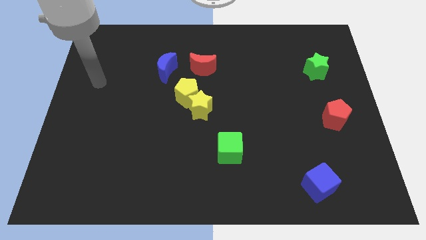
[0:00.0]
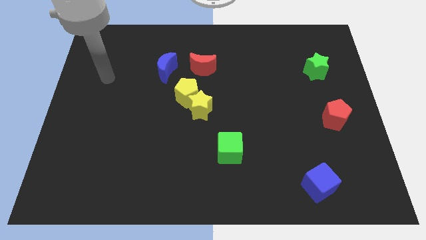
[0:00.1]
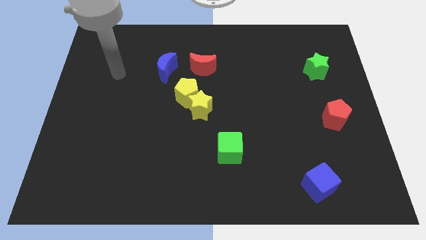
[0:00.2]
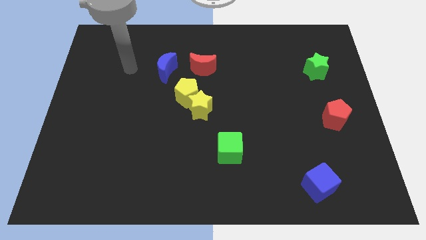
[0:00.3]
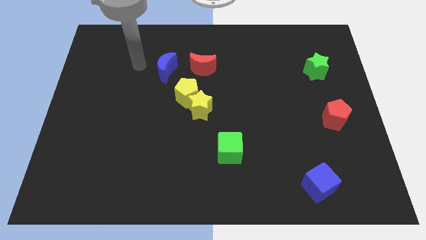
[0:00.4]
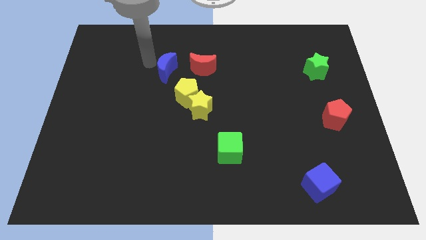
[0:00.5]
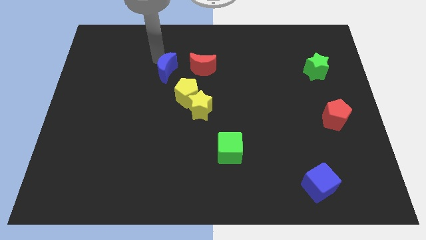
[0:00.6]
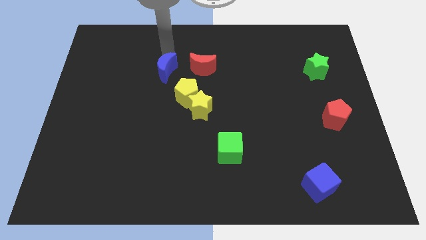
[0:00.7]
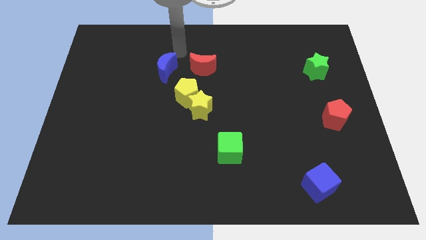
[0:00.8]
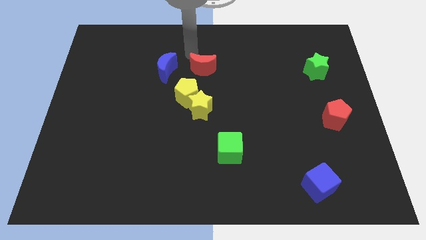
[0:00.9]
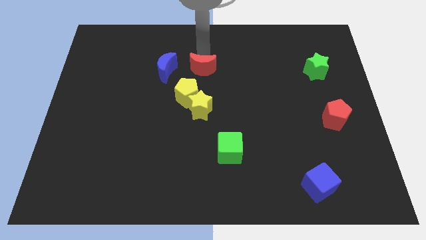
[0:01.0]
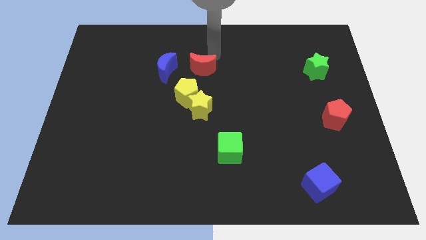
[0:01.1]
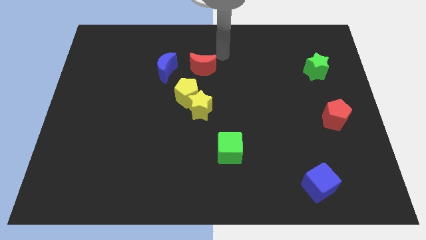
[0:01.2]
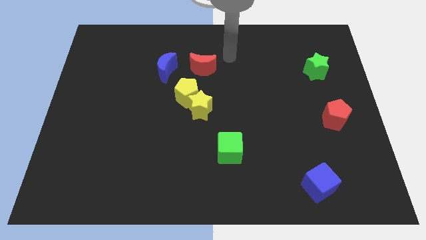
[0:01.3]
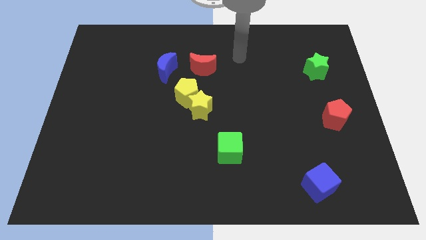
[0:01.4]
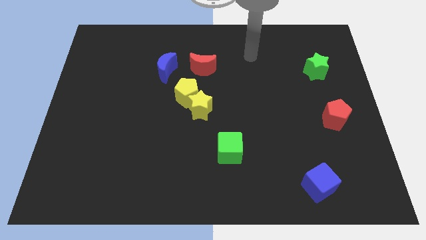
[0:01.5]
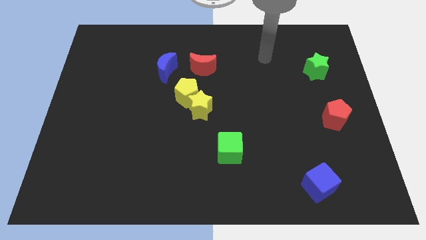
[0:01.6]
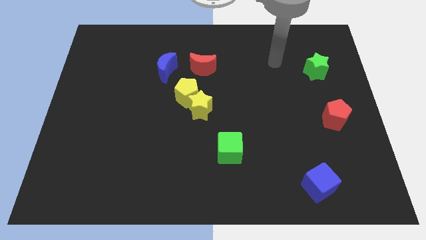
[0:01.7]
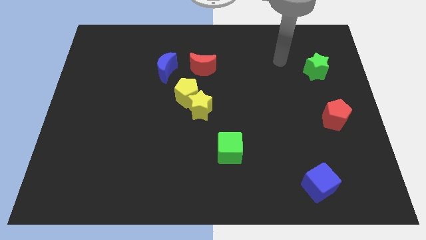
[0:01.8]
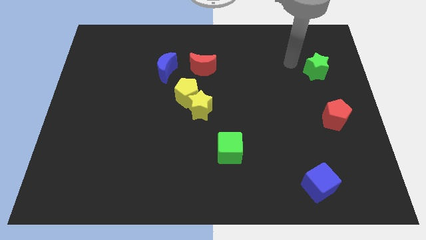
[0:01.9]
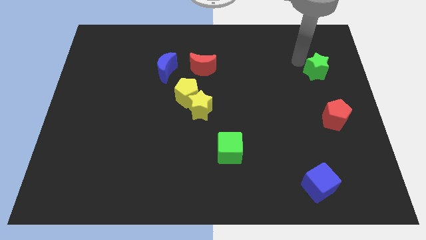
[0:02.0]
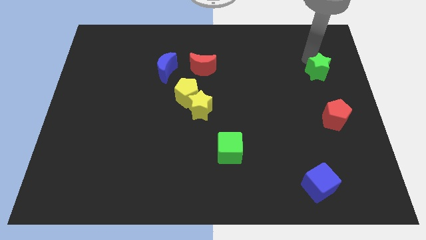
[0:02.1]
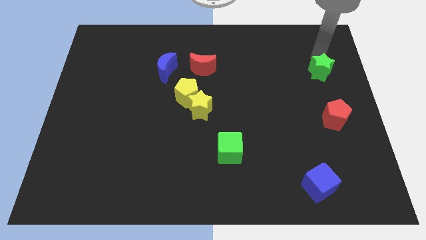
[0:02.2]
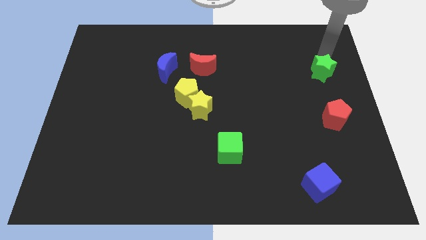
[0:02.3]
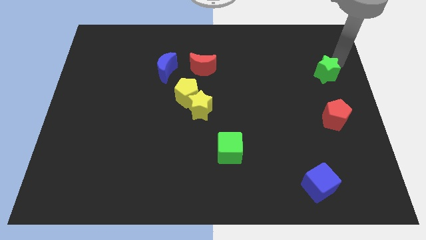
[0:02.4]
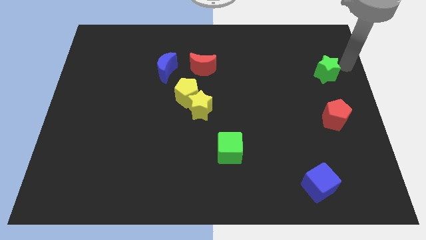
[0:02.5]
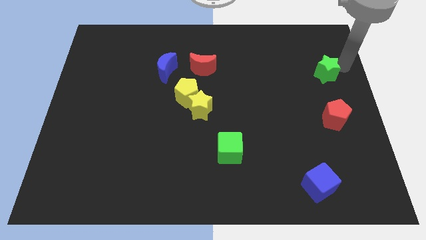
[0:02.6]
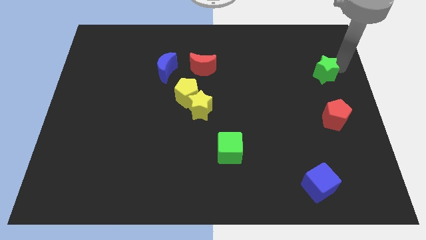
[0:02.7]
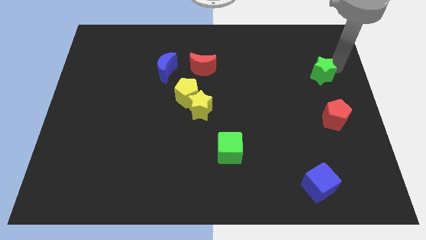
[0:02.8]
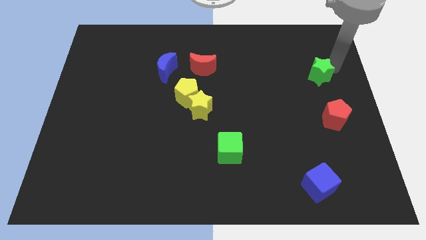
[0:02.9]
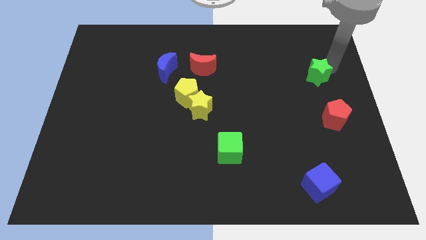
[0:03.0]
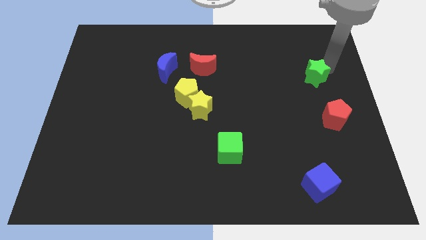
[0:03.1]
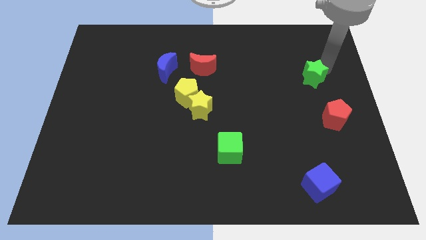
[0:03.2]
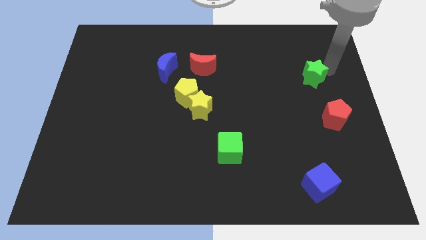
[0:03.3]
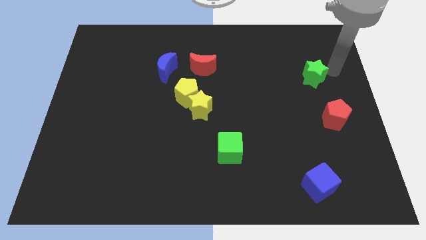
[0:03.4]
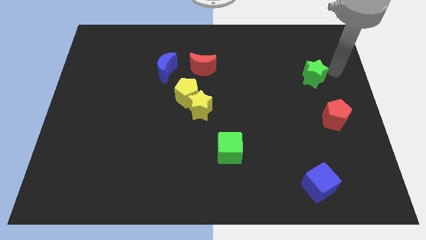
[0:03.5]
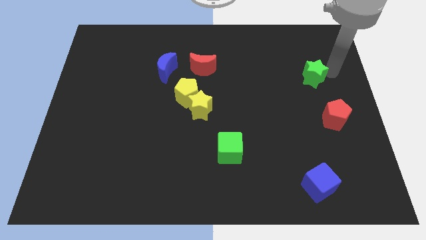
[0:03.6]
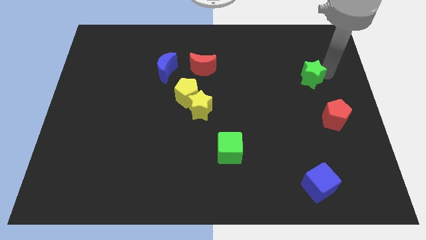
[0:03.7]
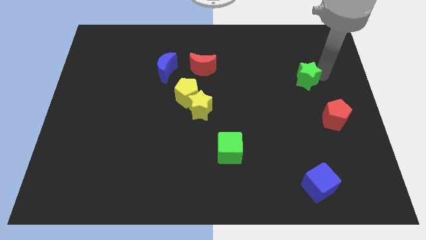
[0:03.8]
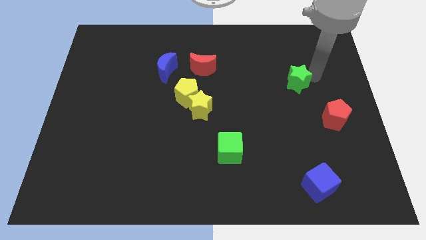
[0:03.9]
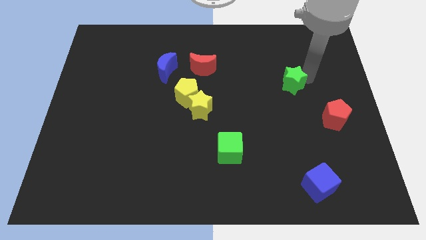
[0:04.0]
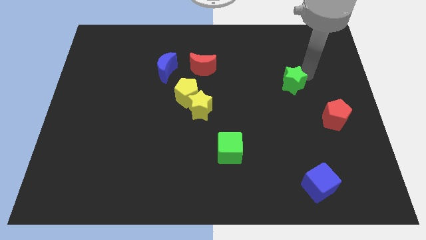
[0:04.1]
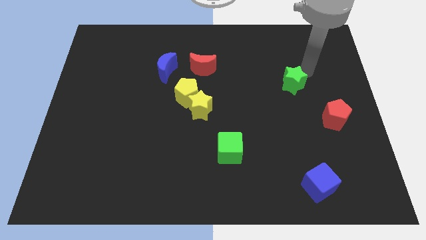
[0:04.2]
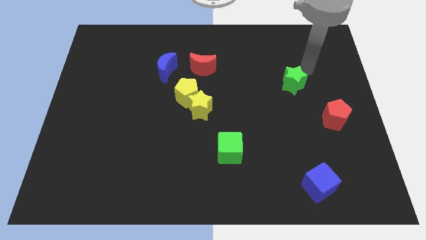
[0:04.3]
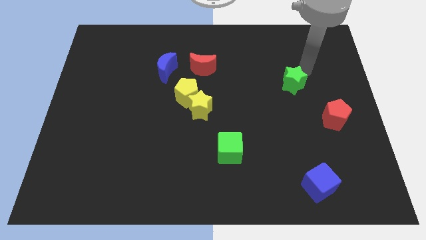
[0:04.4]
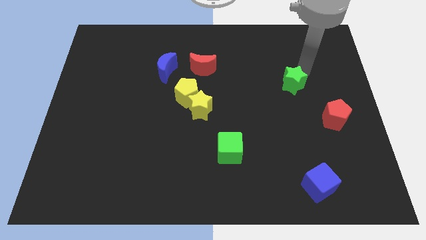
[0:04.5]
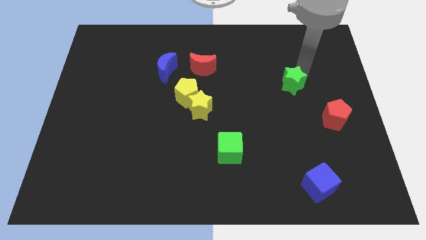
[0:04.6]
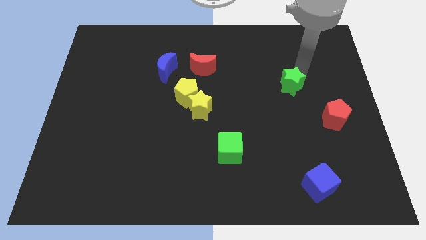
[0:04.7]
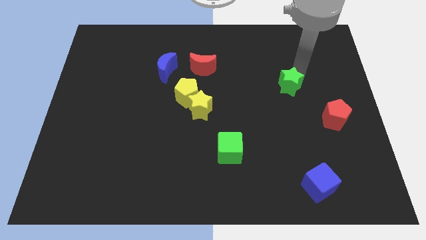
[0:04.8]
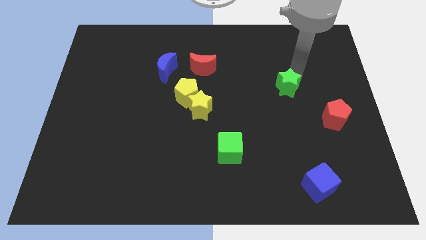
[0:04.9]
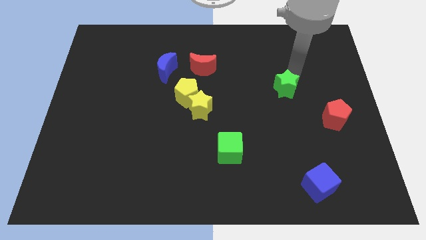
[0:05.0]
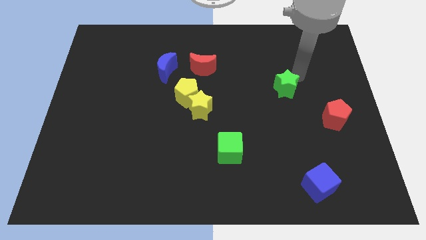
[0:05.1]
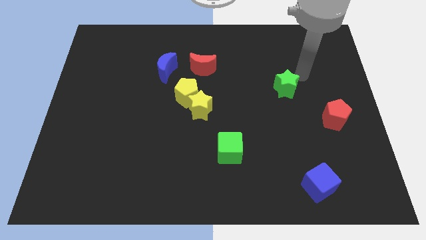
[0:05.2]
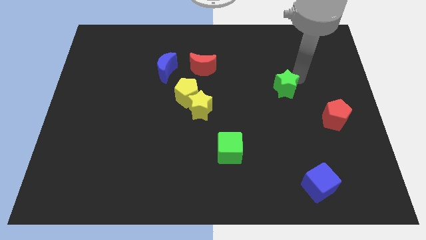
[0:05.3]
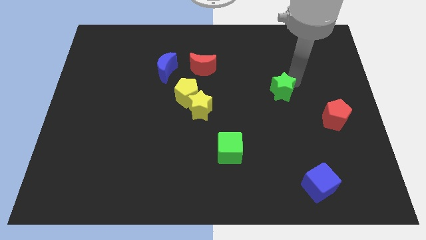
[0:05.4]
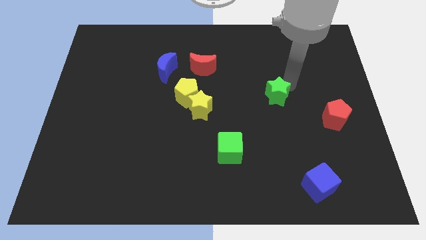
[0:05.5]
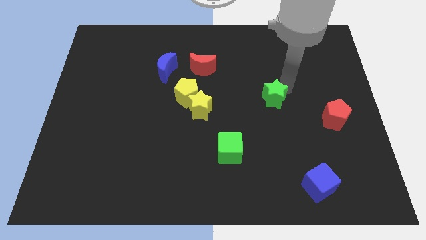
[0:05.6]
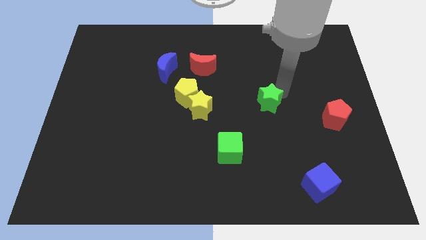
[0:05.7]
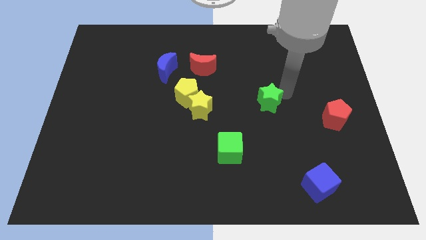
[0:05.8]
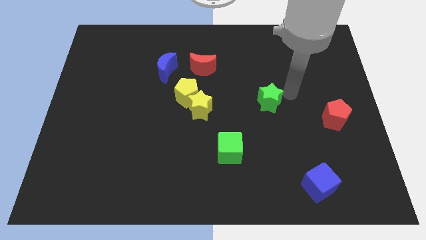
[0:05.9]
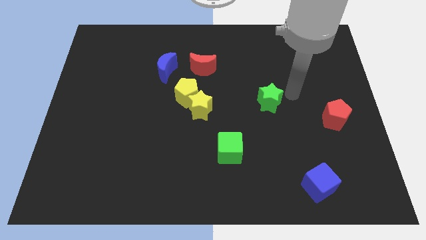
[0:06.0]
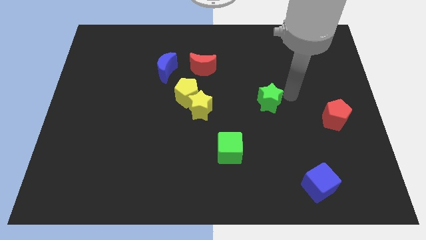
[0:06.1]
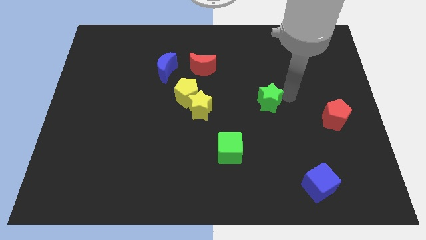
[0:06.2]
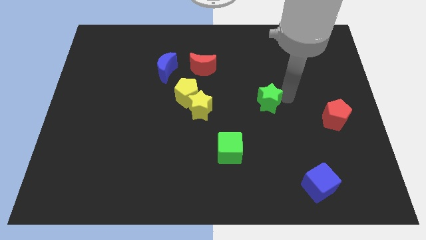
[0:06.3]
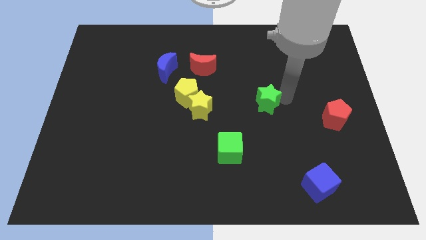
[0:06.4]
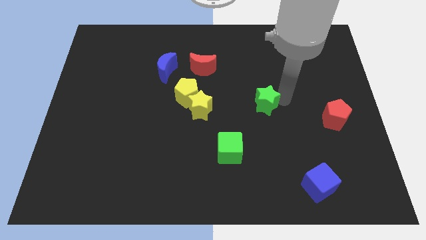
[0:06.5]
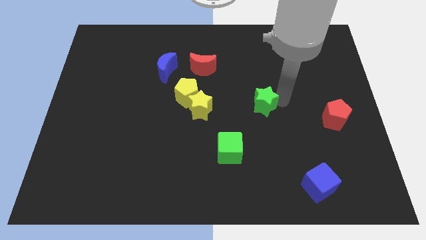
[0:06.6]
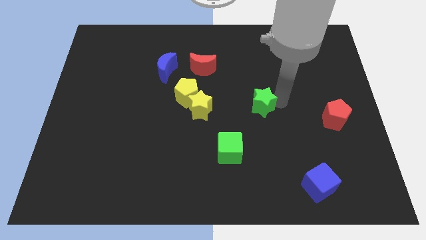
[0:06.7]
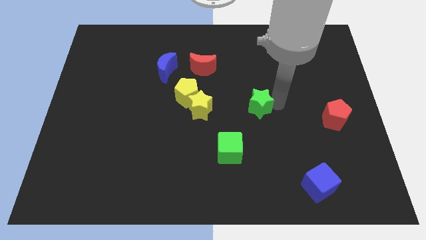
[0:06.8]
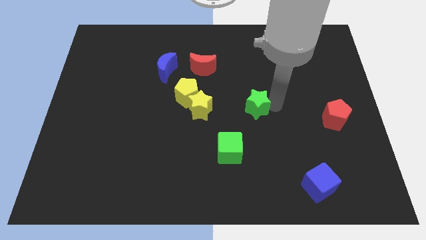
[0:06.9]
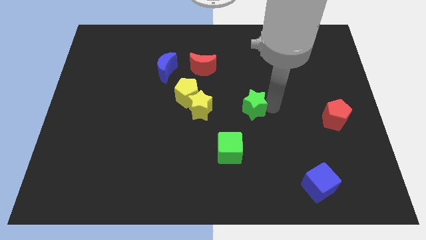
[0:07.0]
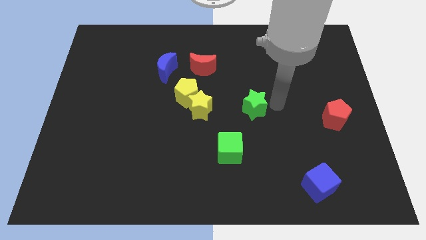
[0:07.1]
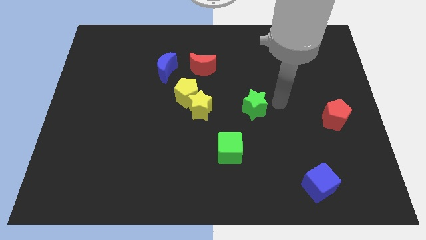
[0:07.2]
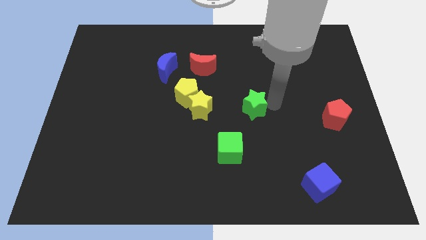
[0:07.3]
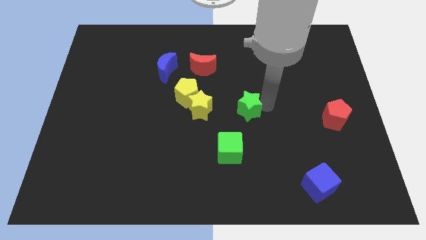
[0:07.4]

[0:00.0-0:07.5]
slide the green star above the green cube
